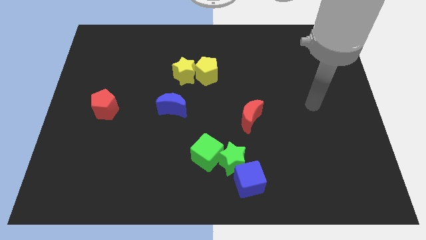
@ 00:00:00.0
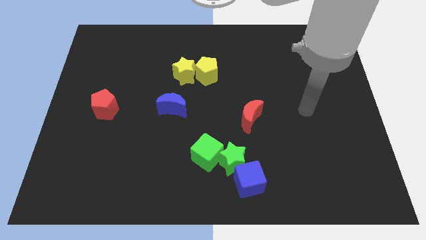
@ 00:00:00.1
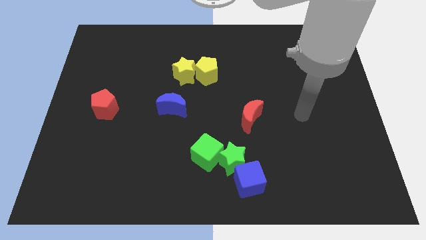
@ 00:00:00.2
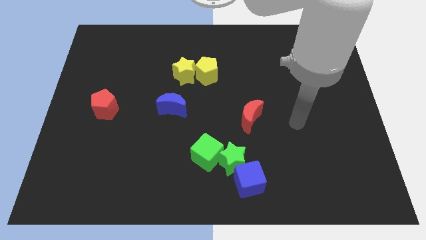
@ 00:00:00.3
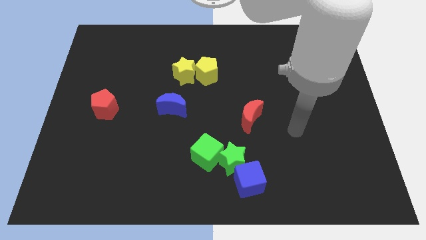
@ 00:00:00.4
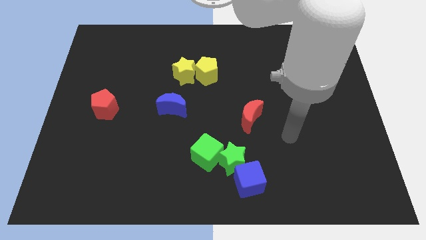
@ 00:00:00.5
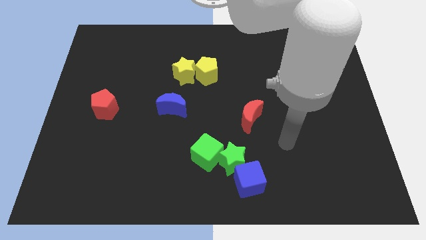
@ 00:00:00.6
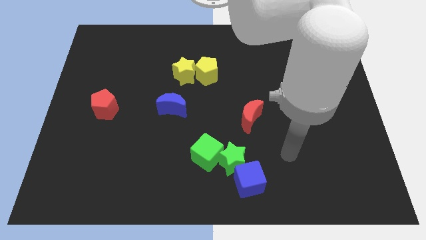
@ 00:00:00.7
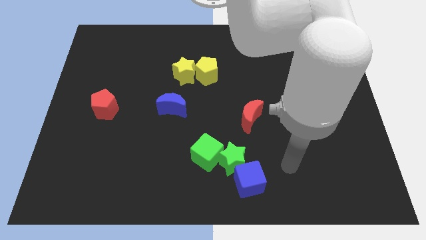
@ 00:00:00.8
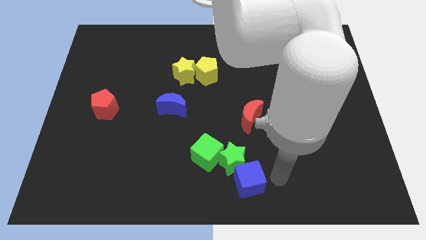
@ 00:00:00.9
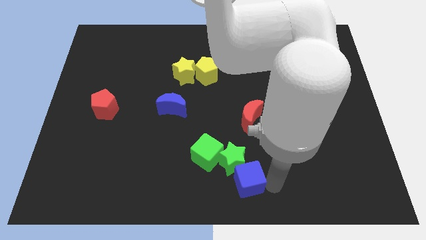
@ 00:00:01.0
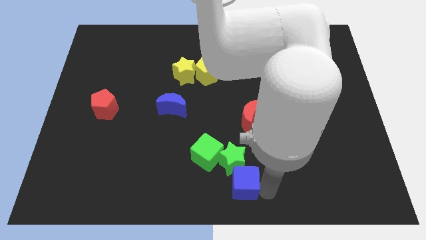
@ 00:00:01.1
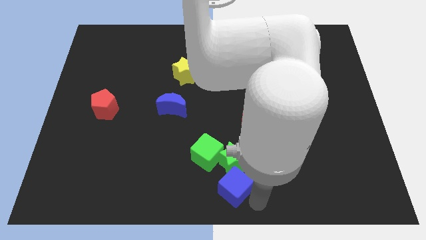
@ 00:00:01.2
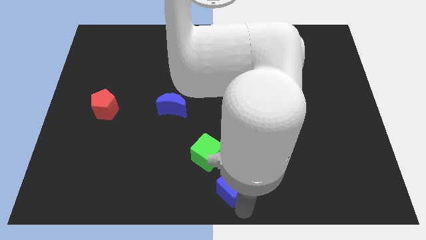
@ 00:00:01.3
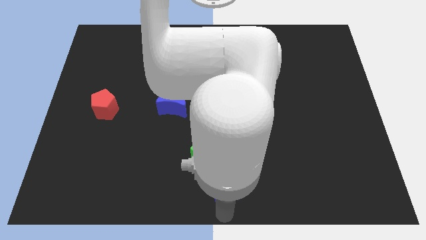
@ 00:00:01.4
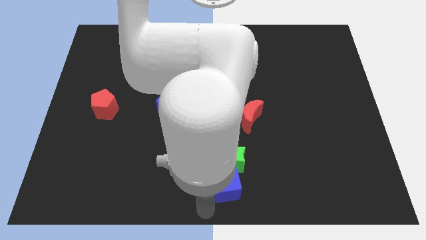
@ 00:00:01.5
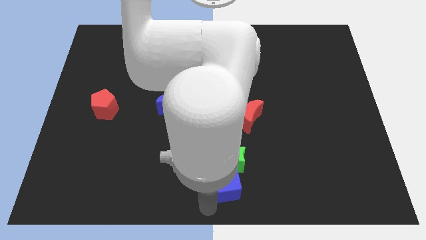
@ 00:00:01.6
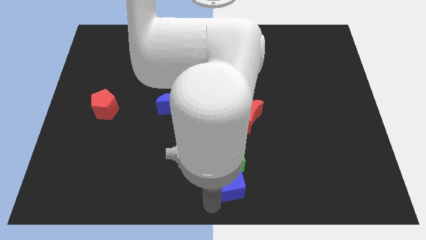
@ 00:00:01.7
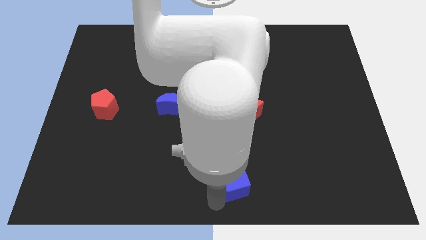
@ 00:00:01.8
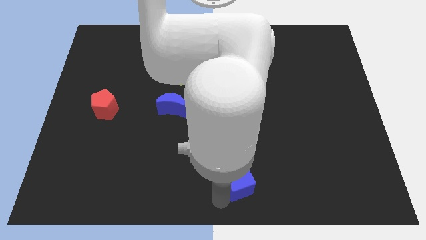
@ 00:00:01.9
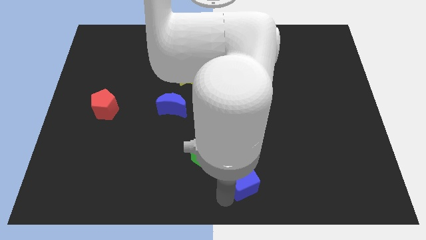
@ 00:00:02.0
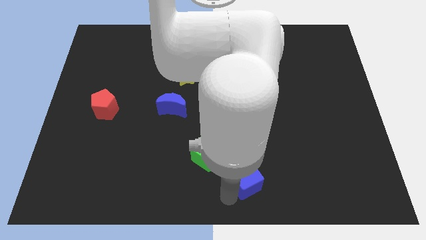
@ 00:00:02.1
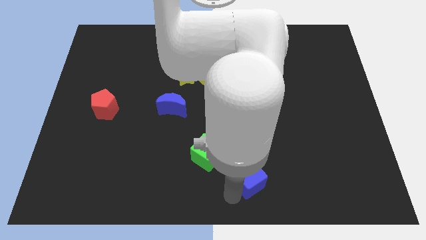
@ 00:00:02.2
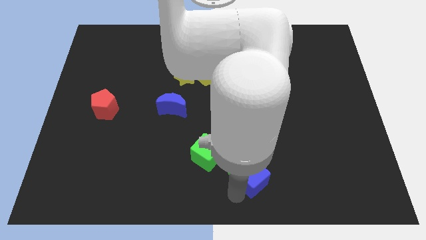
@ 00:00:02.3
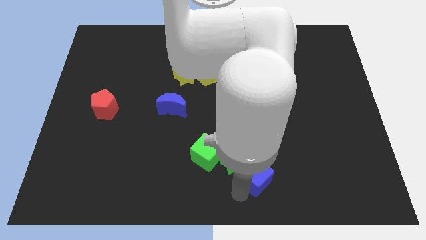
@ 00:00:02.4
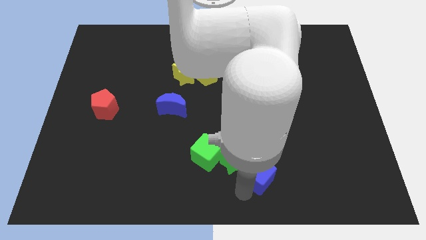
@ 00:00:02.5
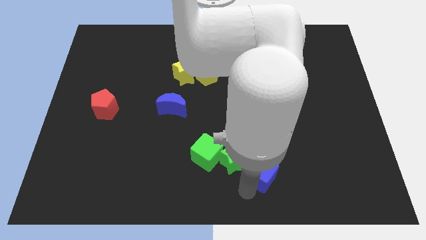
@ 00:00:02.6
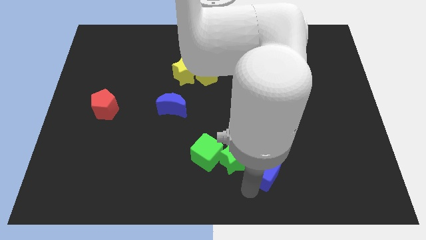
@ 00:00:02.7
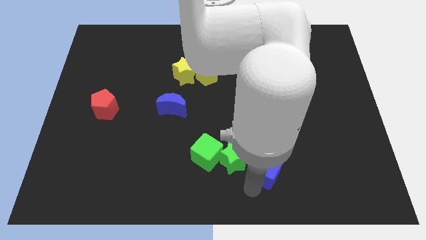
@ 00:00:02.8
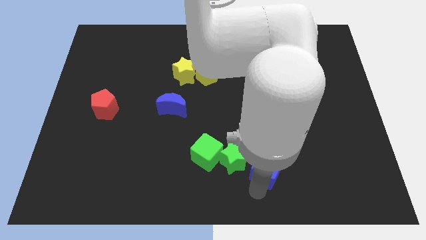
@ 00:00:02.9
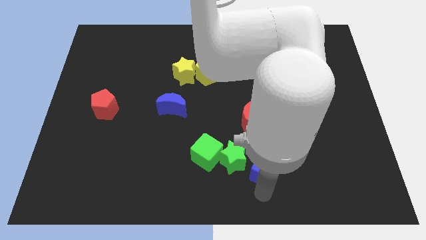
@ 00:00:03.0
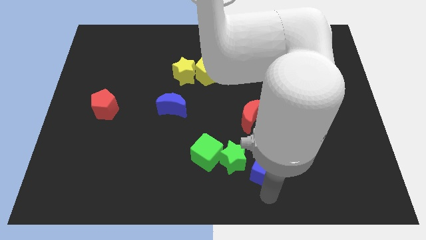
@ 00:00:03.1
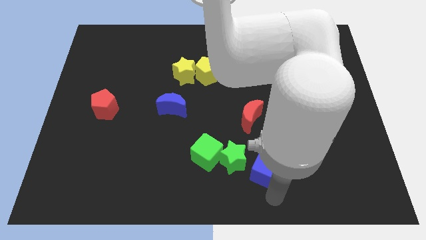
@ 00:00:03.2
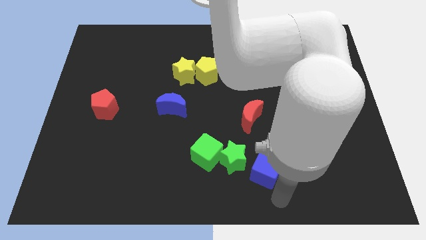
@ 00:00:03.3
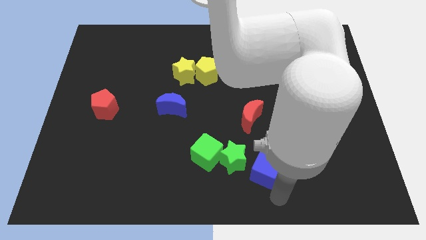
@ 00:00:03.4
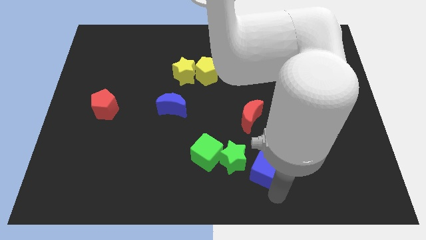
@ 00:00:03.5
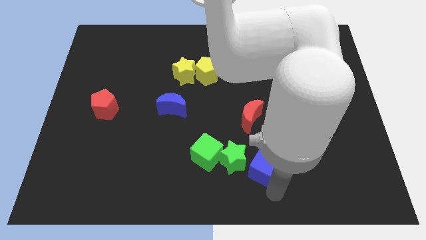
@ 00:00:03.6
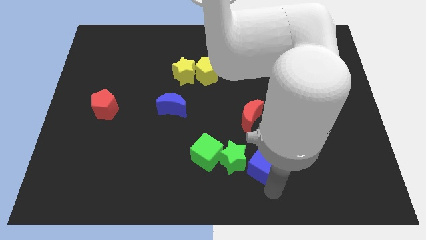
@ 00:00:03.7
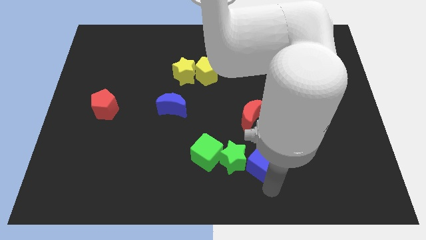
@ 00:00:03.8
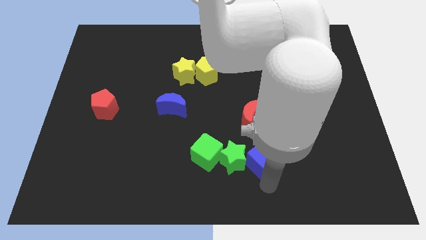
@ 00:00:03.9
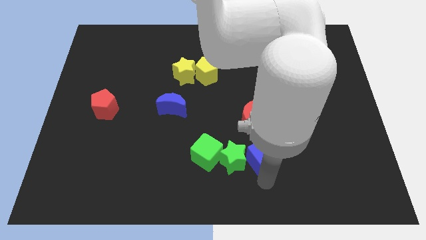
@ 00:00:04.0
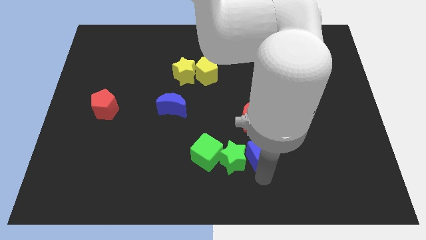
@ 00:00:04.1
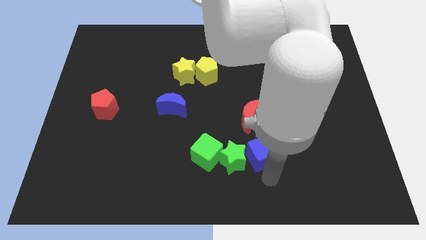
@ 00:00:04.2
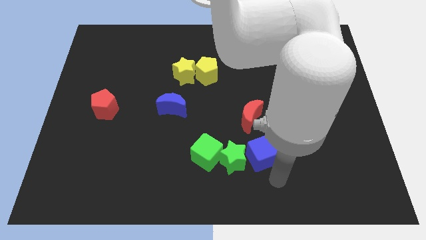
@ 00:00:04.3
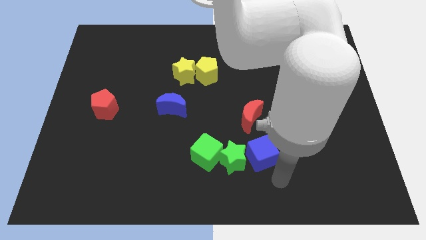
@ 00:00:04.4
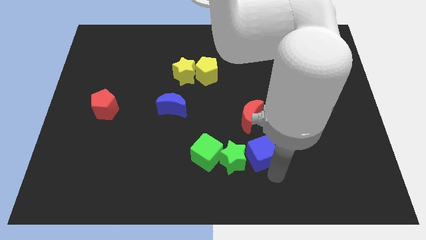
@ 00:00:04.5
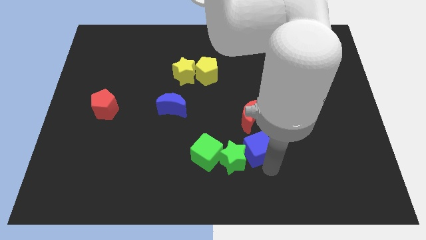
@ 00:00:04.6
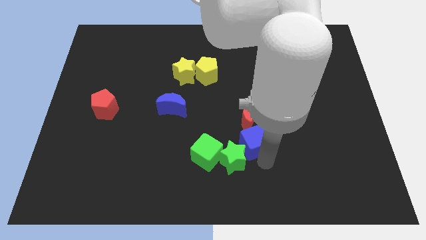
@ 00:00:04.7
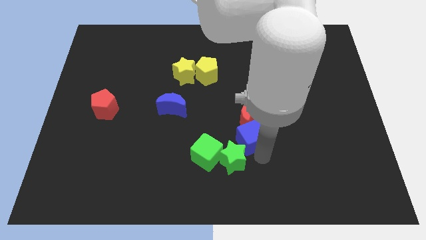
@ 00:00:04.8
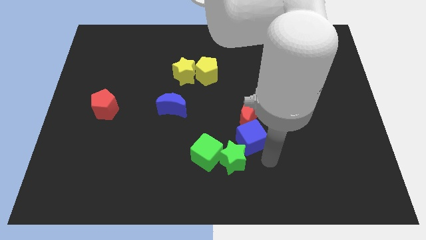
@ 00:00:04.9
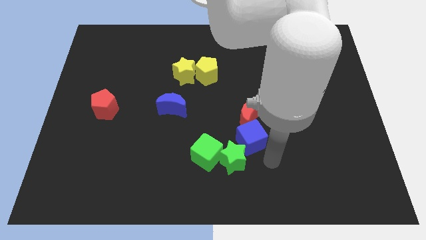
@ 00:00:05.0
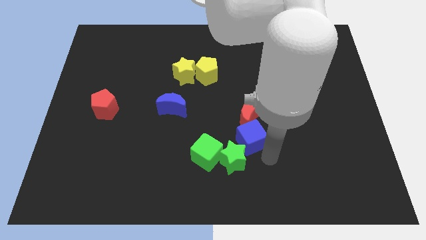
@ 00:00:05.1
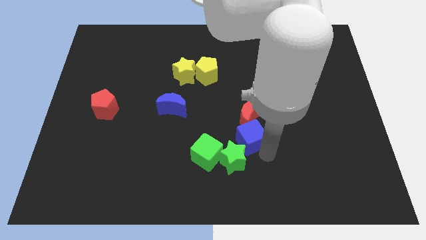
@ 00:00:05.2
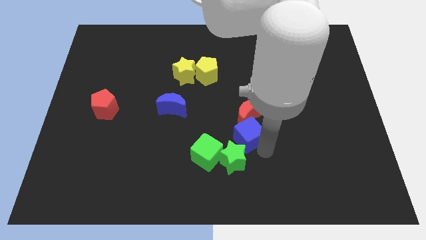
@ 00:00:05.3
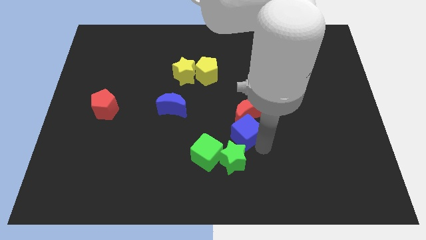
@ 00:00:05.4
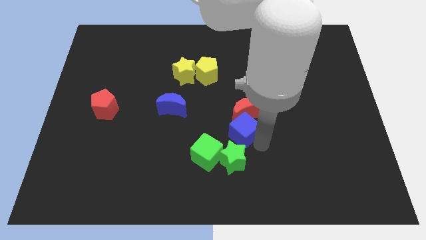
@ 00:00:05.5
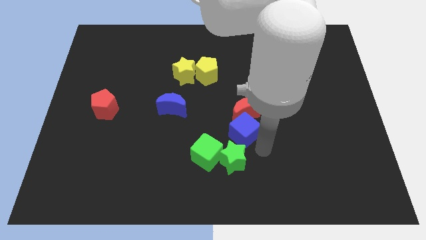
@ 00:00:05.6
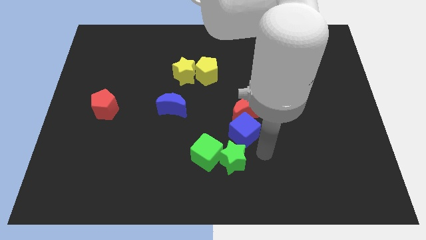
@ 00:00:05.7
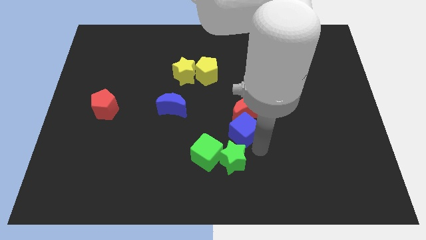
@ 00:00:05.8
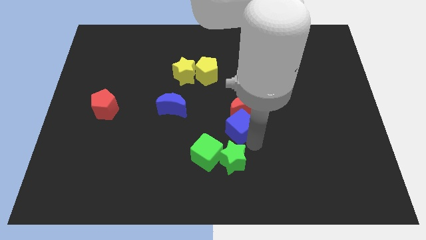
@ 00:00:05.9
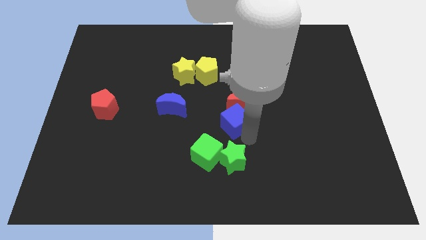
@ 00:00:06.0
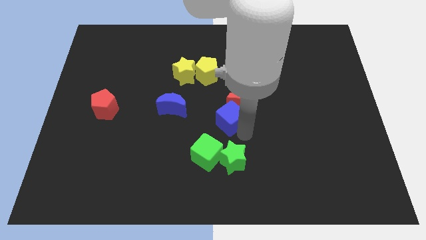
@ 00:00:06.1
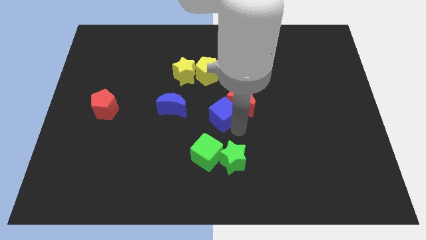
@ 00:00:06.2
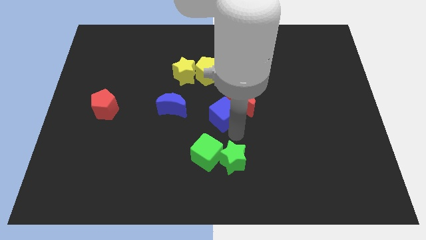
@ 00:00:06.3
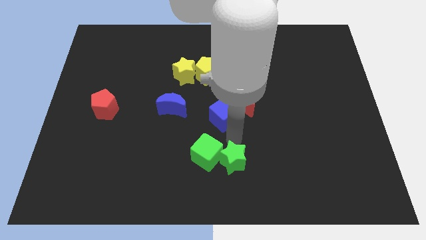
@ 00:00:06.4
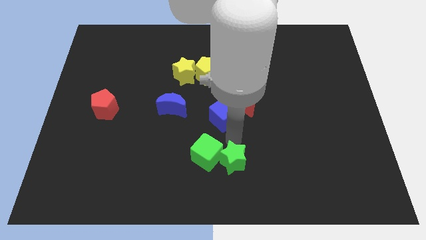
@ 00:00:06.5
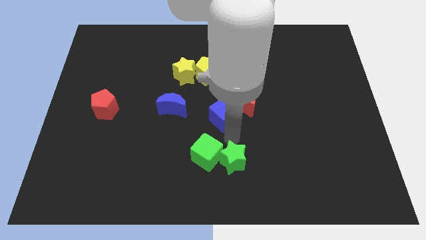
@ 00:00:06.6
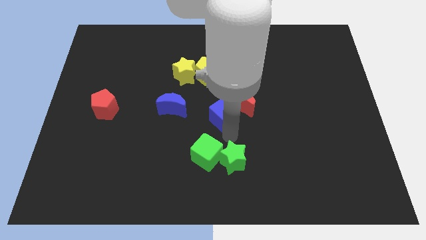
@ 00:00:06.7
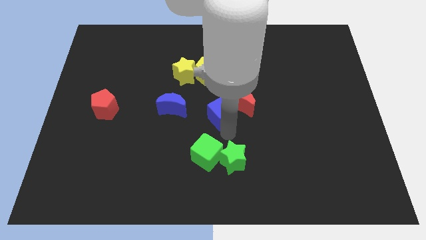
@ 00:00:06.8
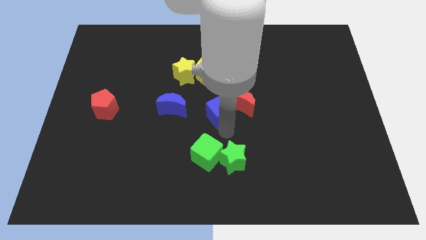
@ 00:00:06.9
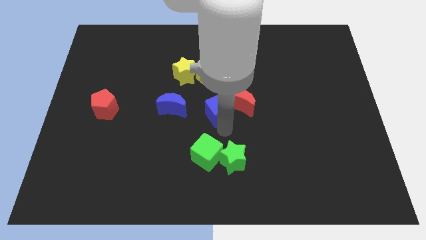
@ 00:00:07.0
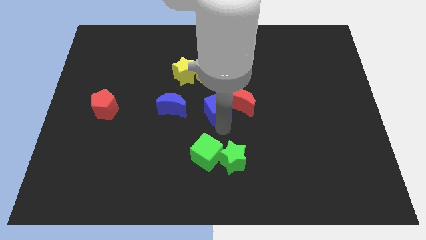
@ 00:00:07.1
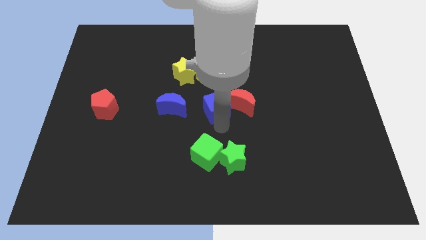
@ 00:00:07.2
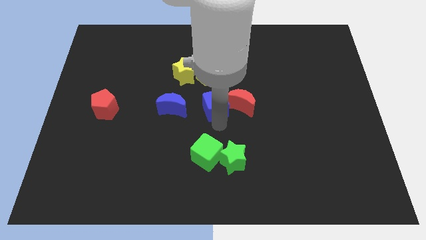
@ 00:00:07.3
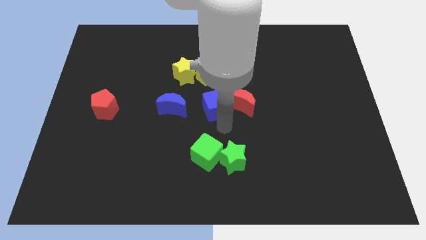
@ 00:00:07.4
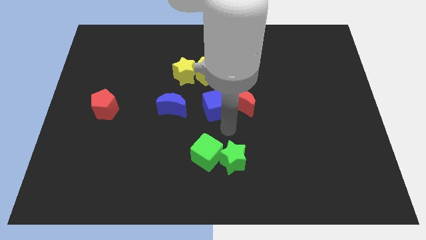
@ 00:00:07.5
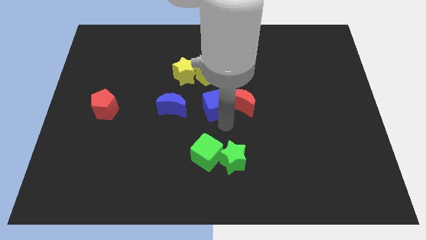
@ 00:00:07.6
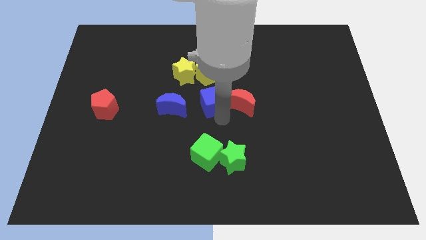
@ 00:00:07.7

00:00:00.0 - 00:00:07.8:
move the blue cube to the bottom right of the yellow star
